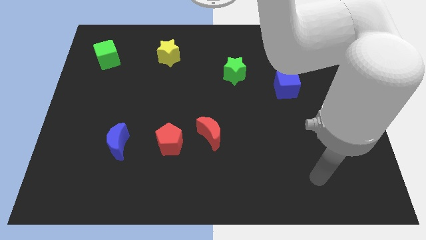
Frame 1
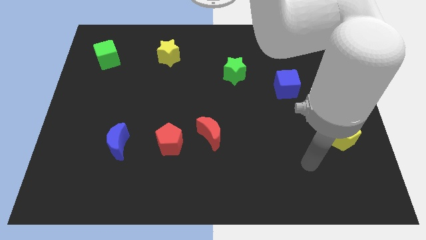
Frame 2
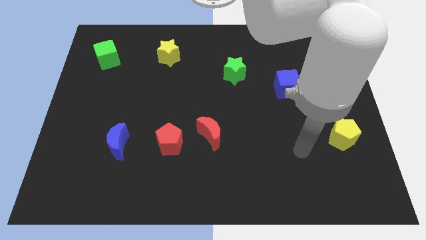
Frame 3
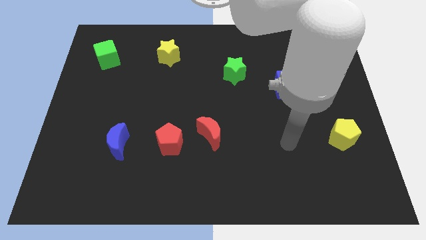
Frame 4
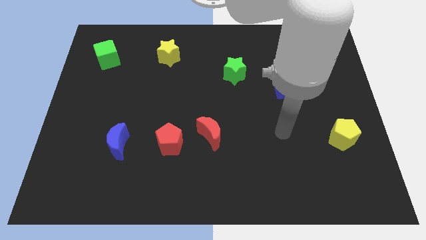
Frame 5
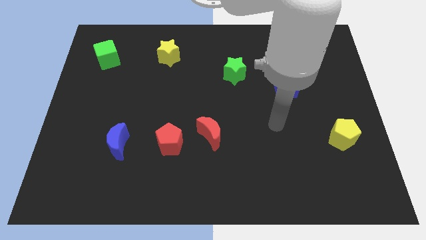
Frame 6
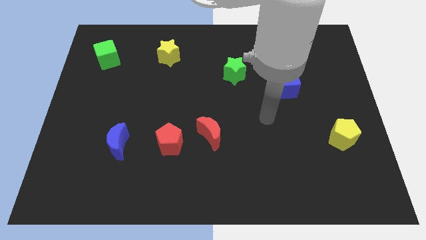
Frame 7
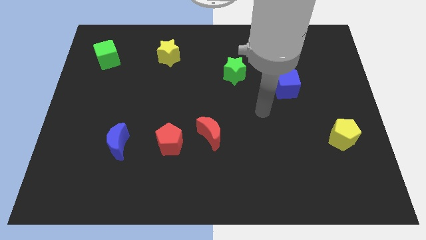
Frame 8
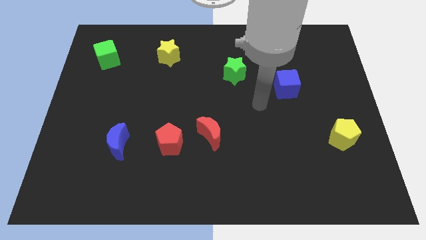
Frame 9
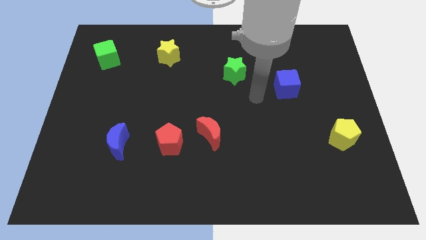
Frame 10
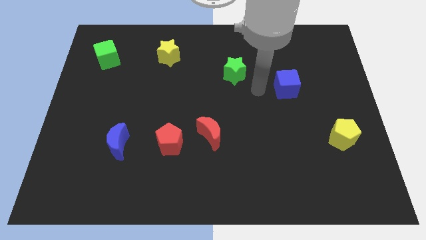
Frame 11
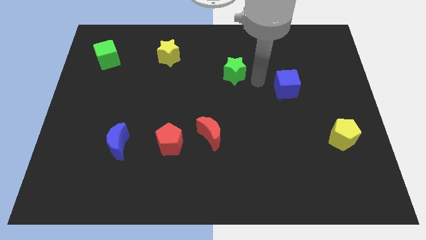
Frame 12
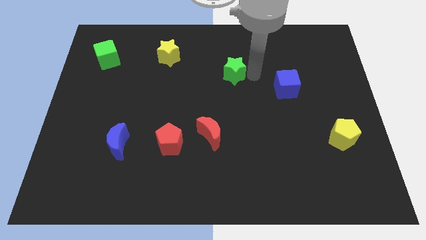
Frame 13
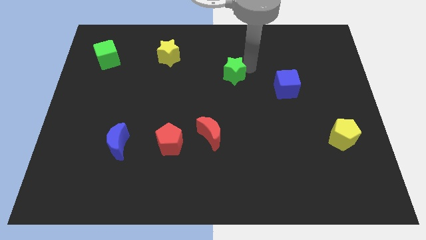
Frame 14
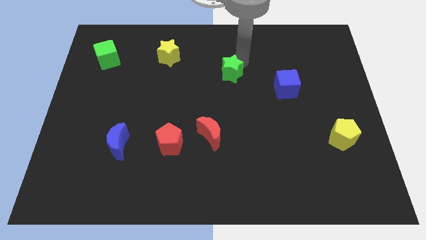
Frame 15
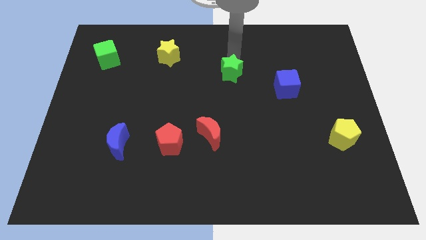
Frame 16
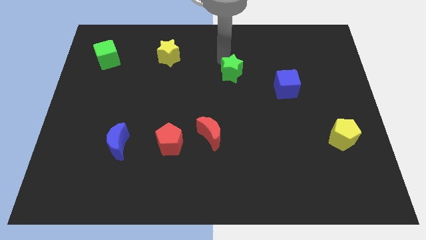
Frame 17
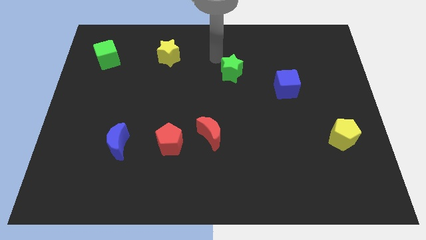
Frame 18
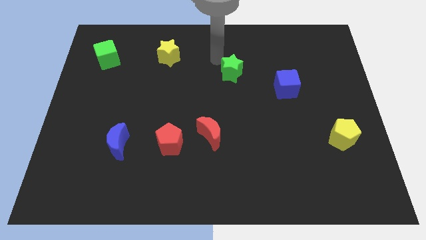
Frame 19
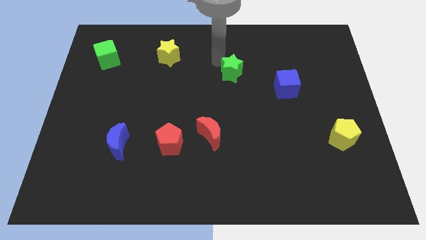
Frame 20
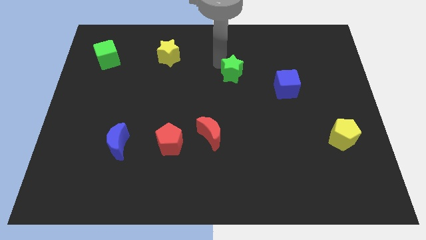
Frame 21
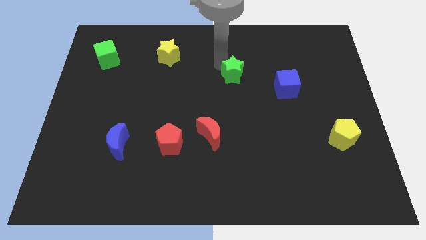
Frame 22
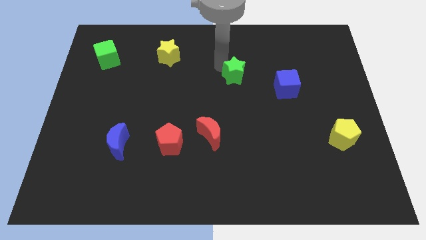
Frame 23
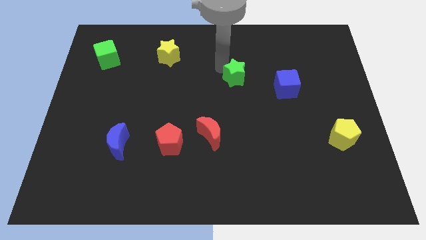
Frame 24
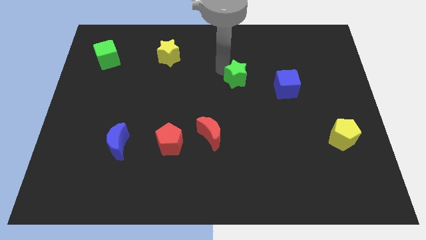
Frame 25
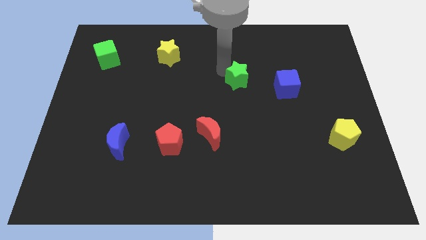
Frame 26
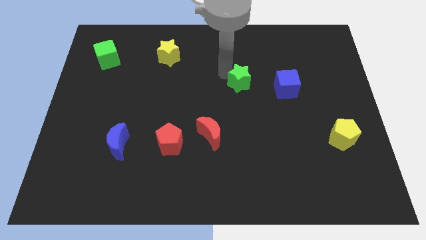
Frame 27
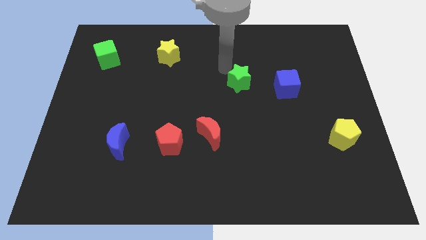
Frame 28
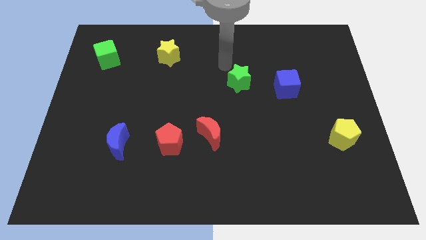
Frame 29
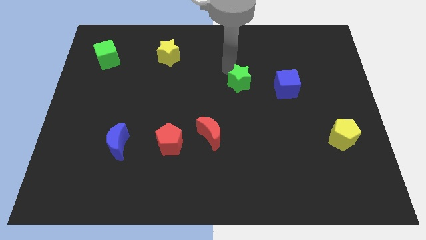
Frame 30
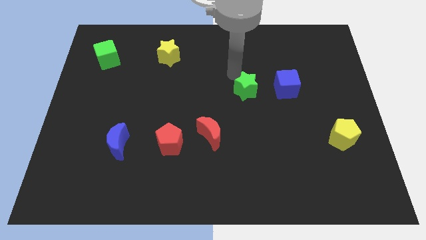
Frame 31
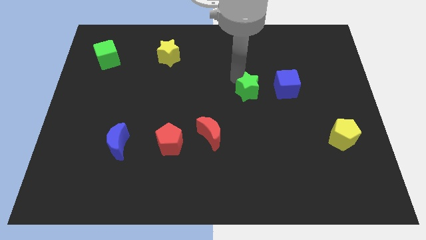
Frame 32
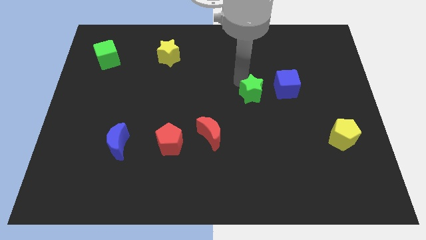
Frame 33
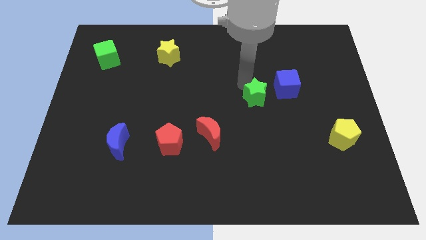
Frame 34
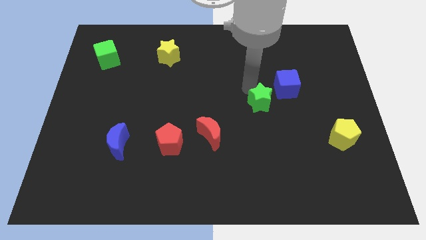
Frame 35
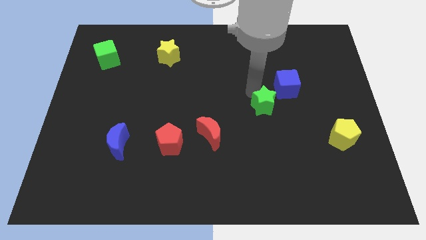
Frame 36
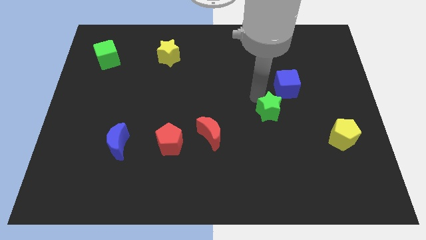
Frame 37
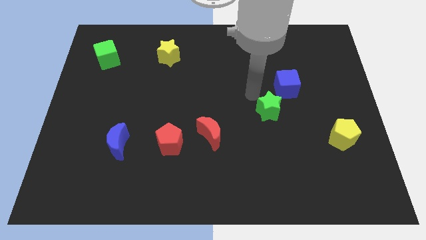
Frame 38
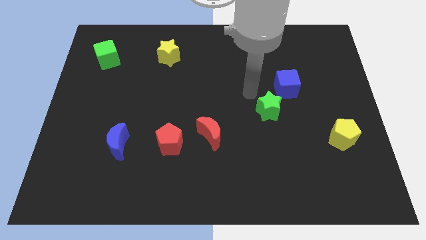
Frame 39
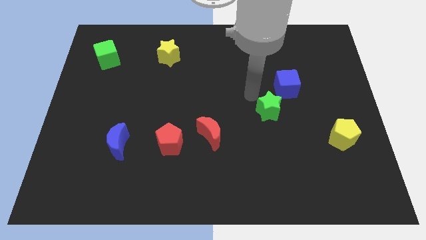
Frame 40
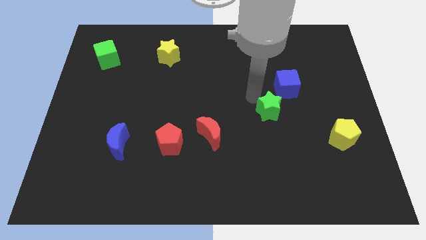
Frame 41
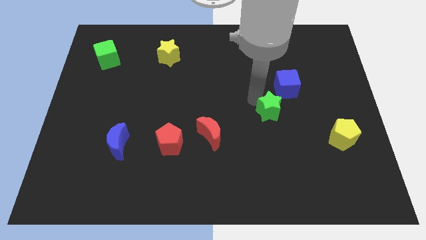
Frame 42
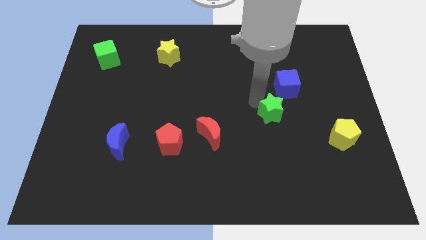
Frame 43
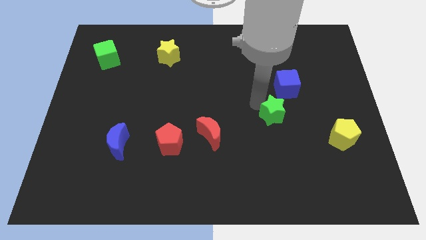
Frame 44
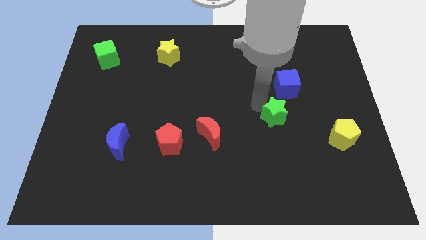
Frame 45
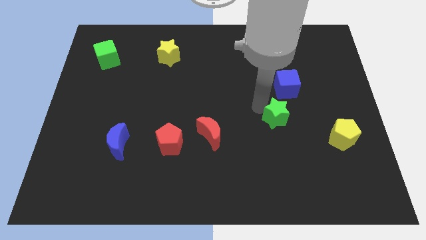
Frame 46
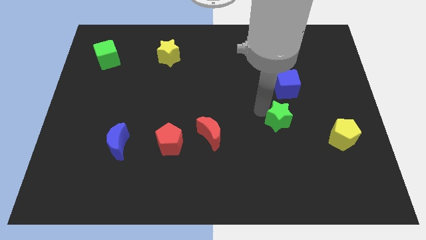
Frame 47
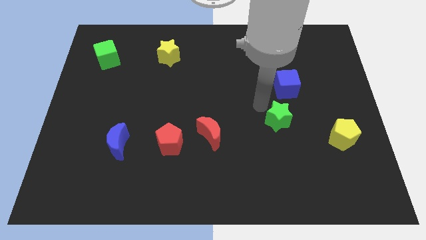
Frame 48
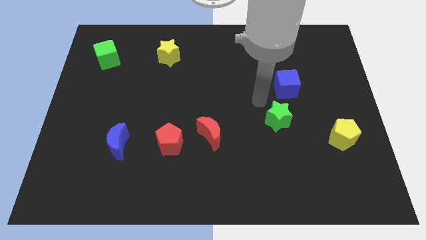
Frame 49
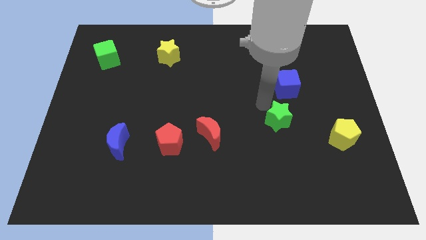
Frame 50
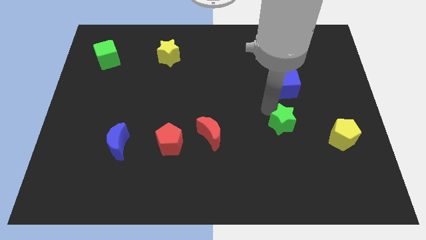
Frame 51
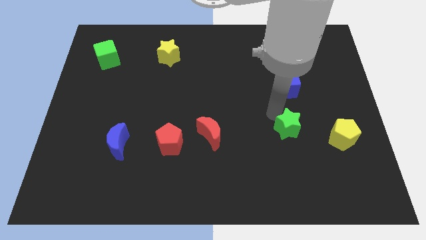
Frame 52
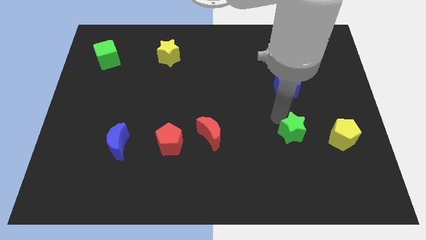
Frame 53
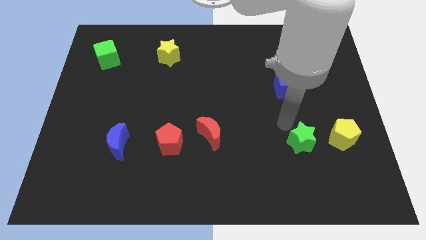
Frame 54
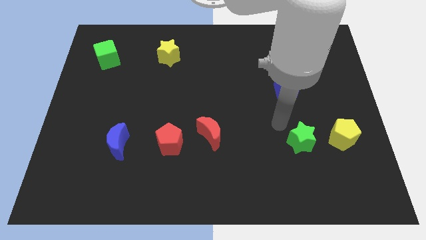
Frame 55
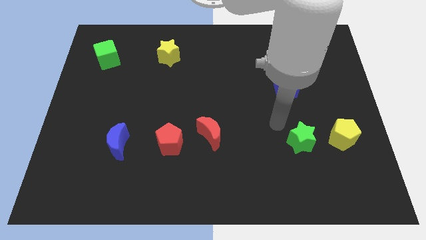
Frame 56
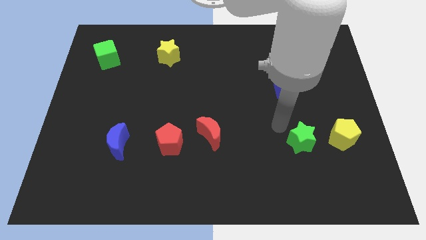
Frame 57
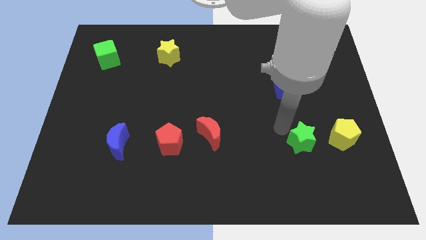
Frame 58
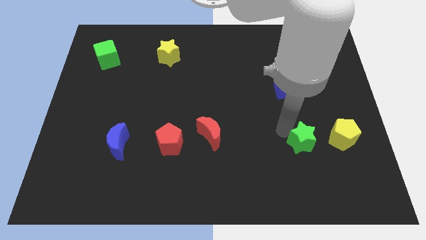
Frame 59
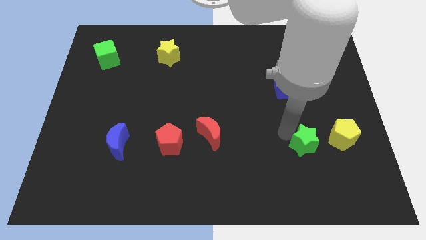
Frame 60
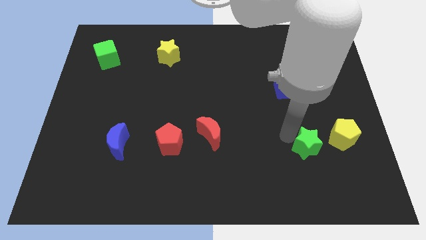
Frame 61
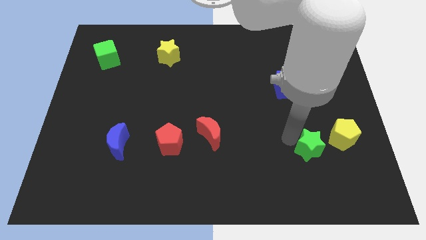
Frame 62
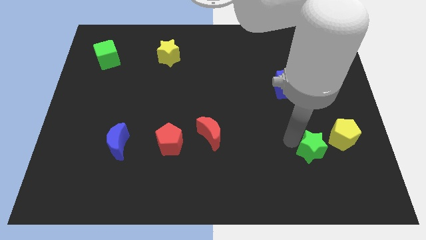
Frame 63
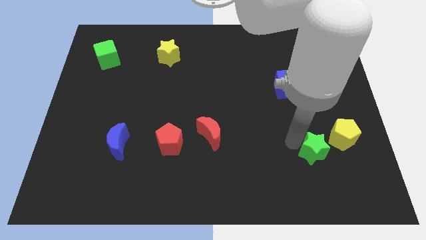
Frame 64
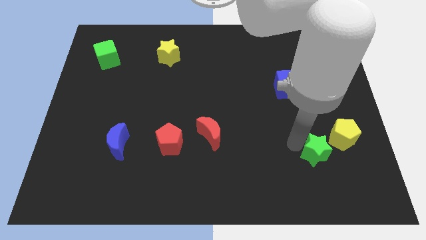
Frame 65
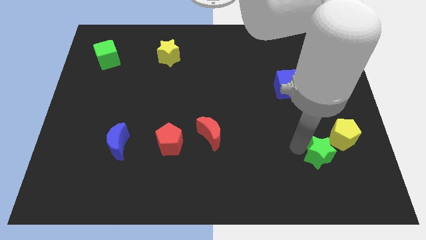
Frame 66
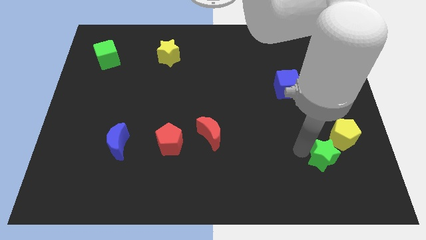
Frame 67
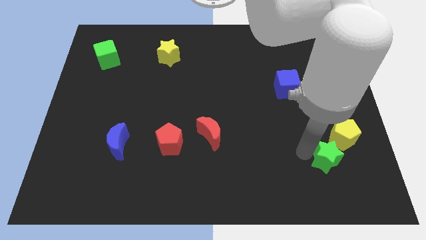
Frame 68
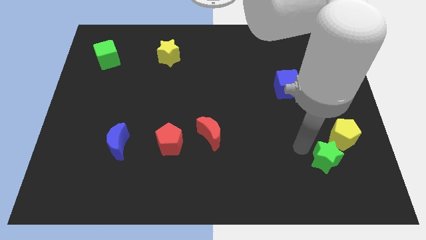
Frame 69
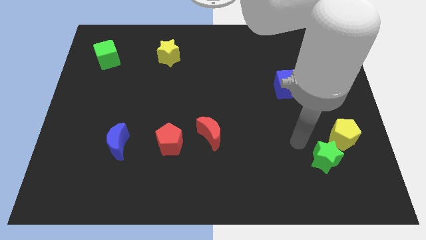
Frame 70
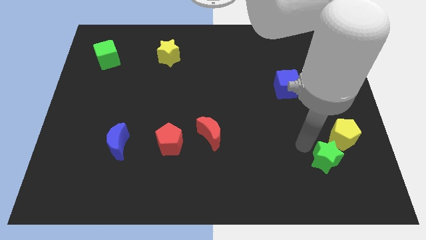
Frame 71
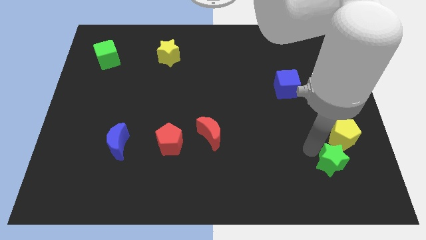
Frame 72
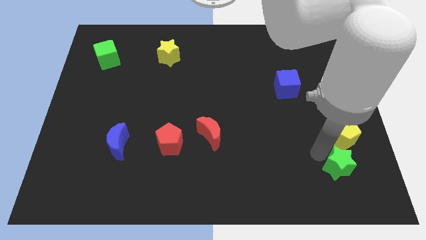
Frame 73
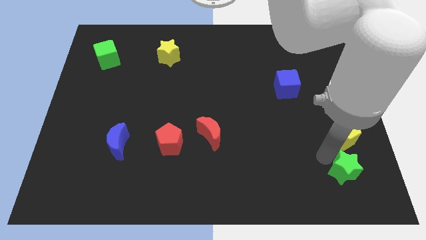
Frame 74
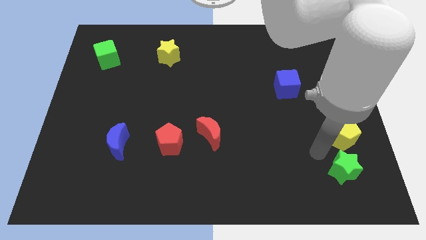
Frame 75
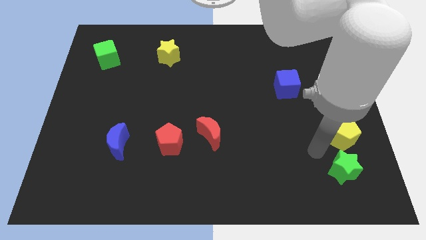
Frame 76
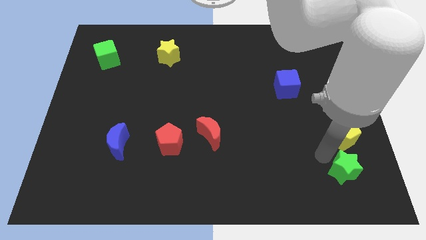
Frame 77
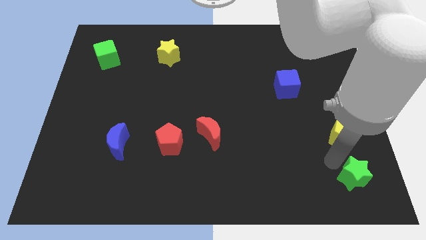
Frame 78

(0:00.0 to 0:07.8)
slide the green star to the bottom right of the board
